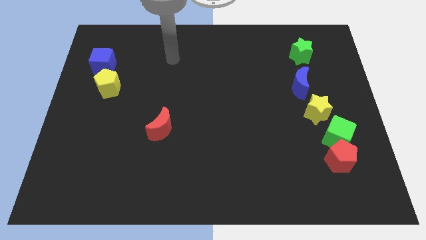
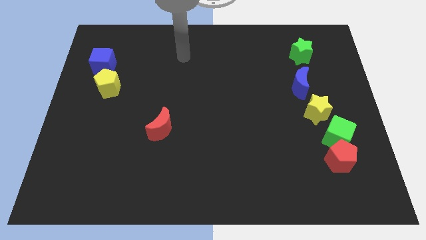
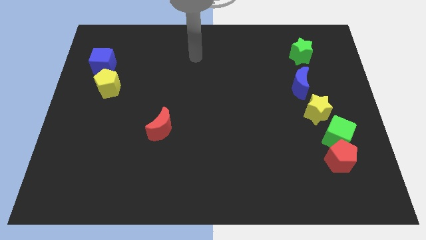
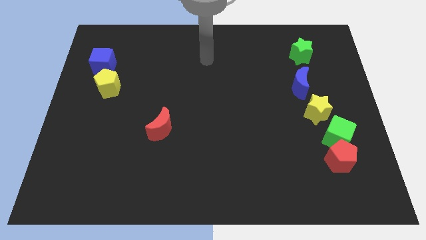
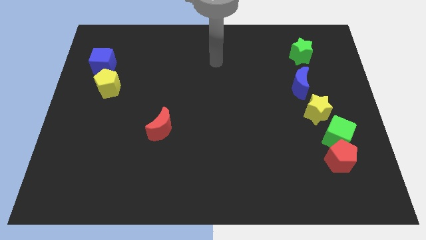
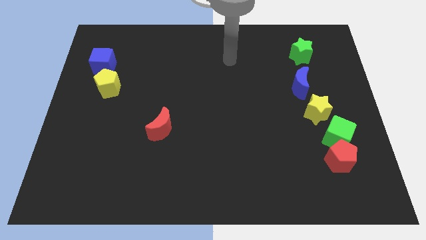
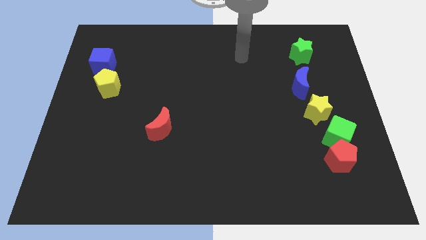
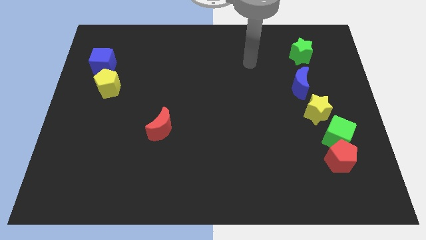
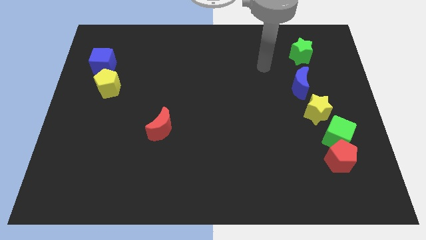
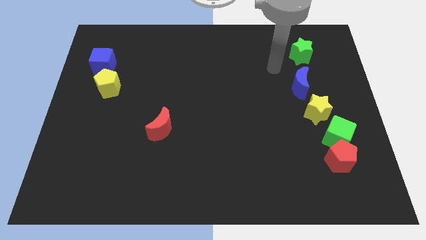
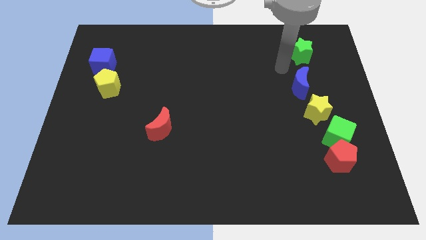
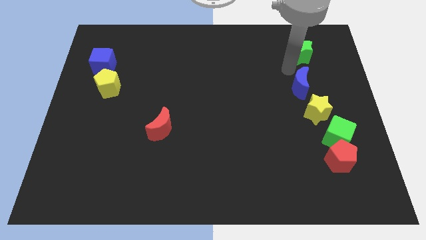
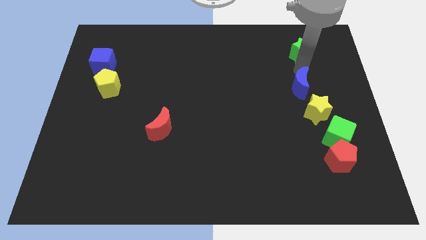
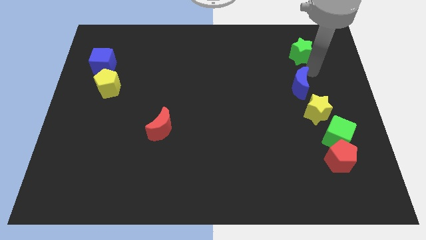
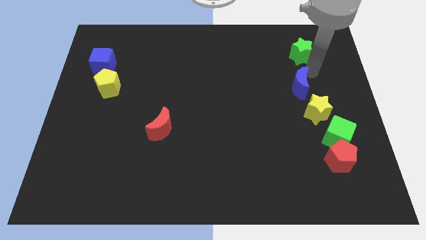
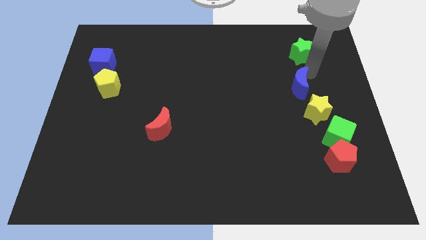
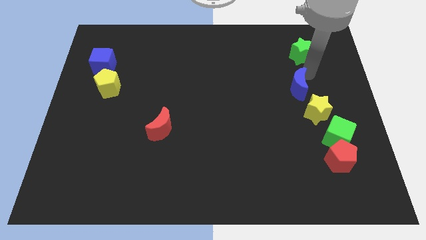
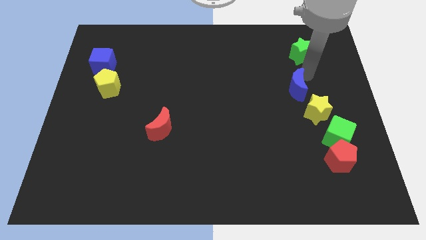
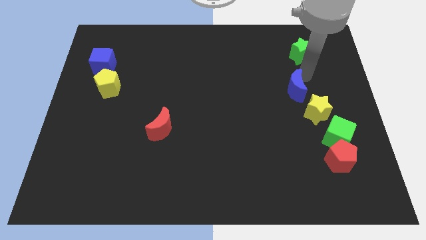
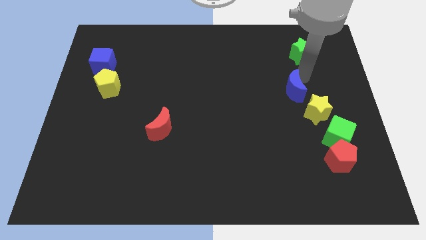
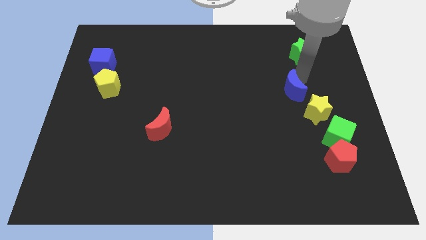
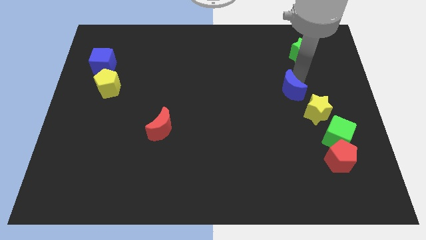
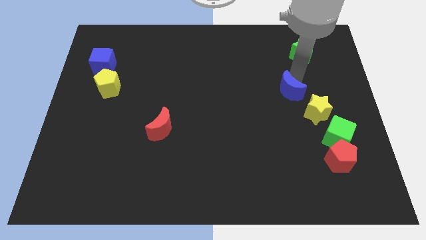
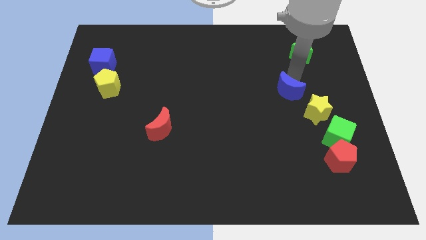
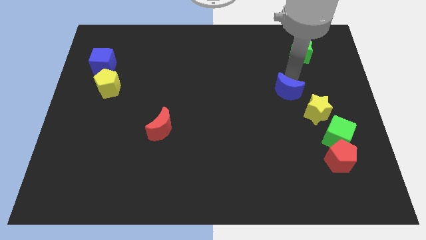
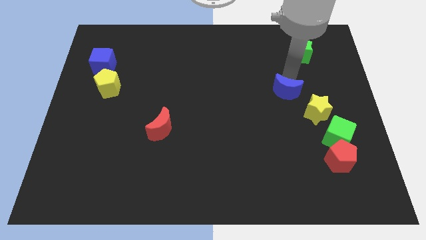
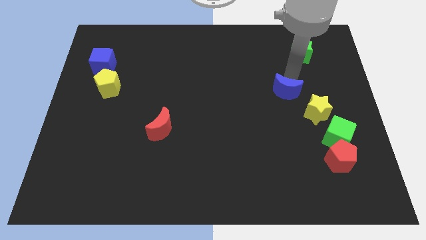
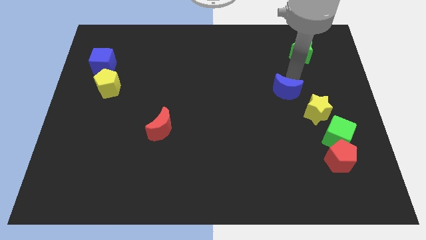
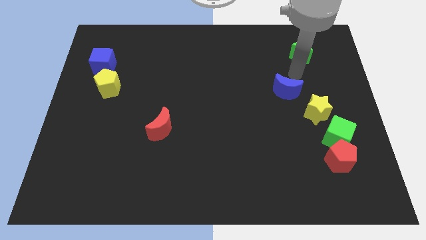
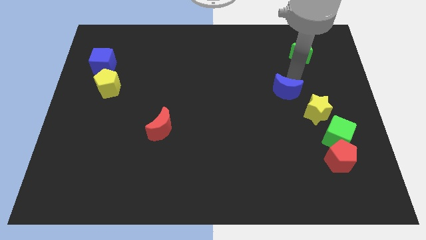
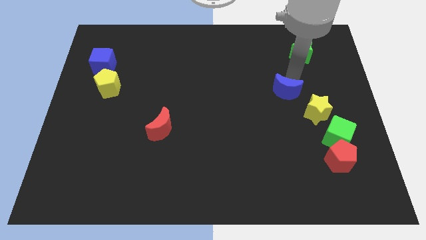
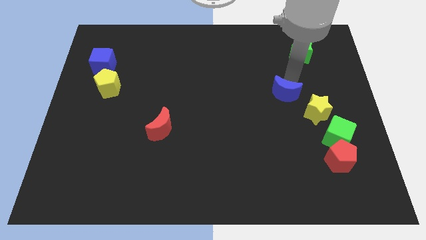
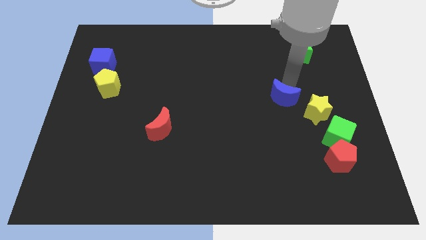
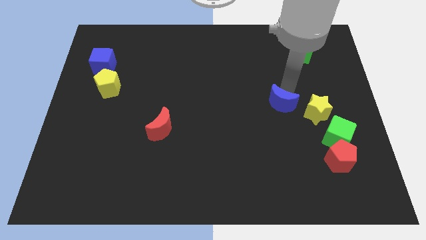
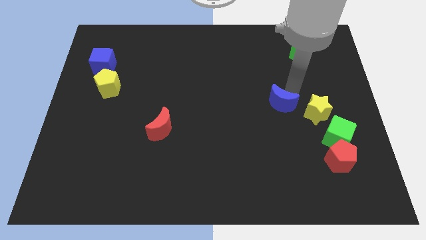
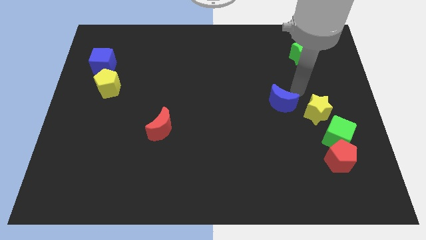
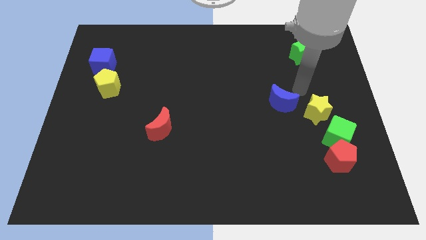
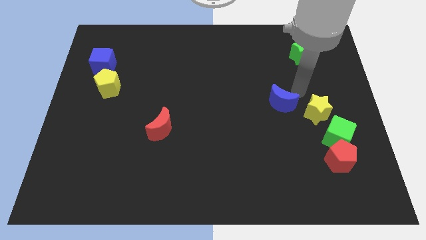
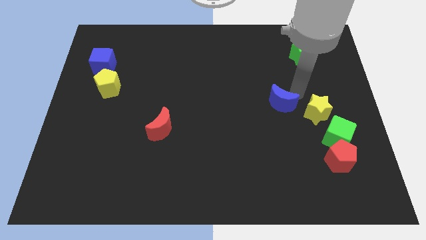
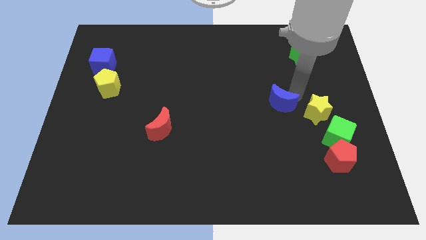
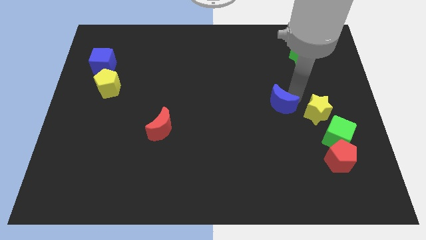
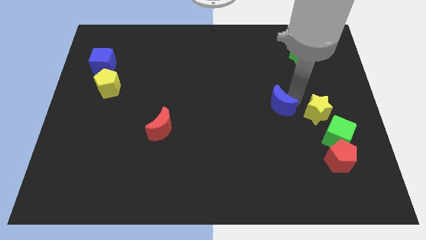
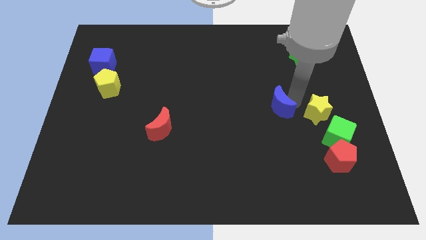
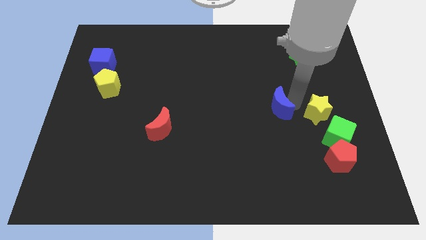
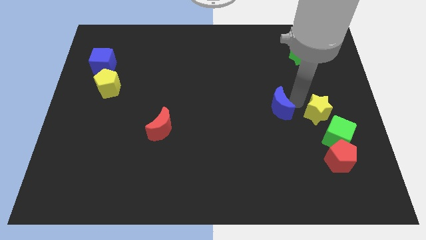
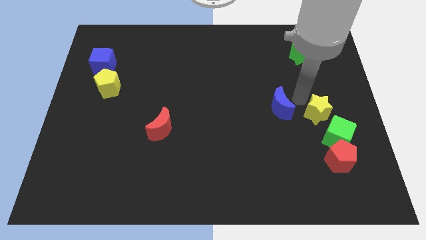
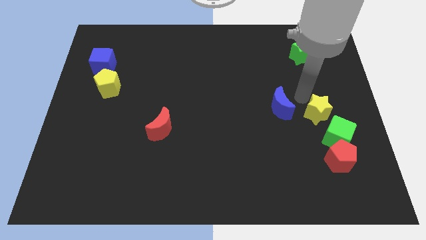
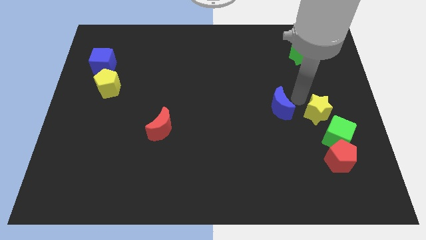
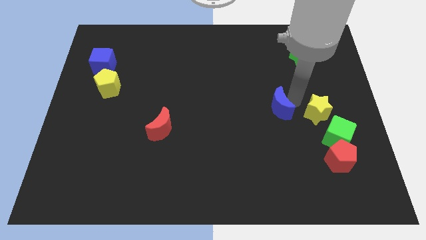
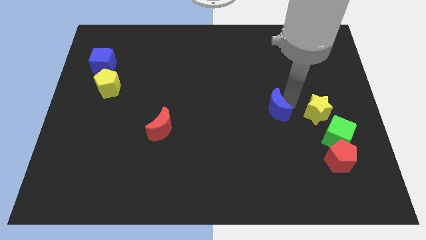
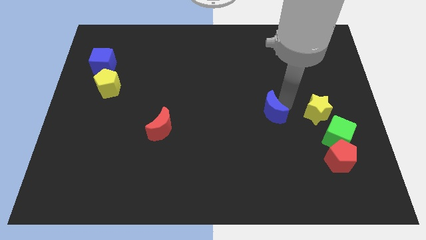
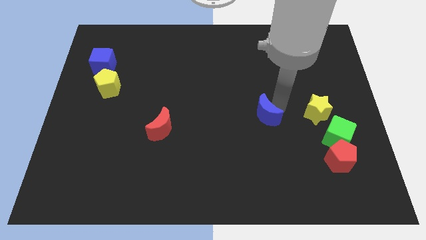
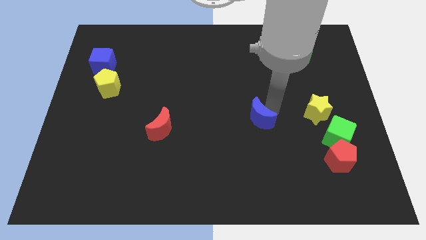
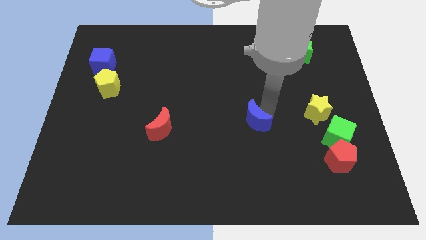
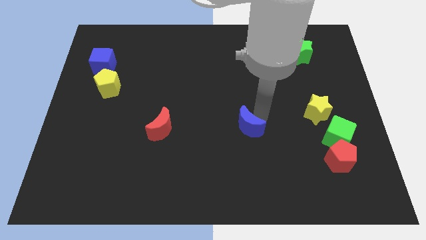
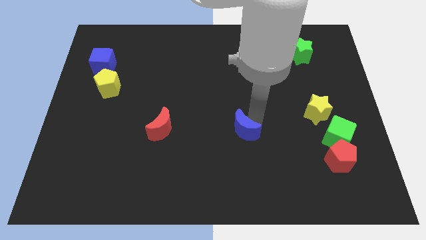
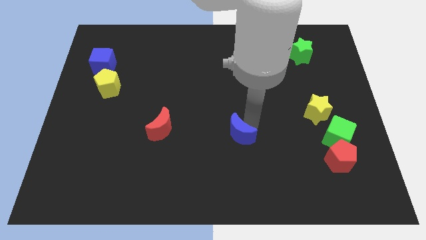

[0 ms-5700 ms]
slide the blue moon down and then left

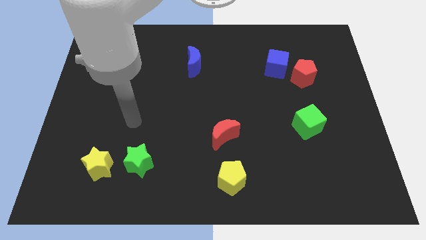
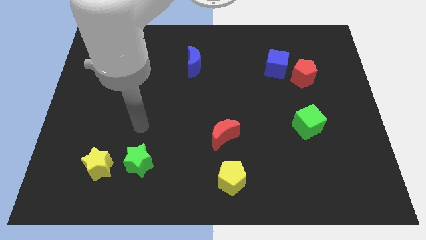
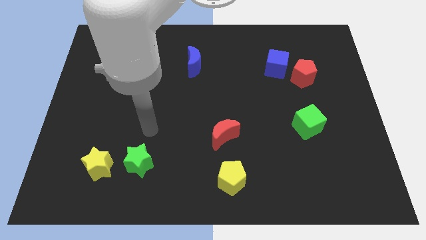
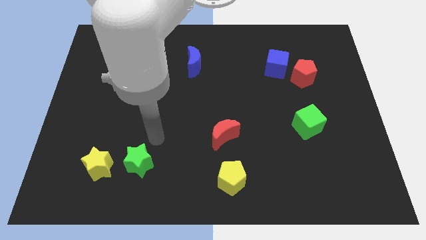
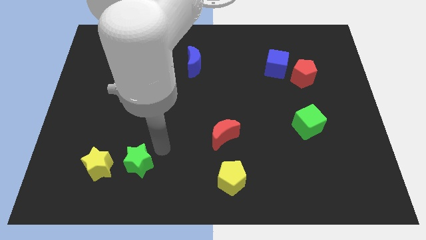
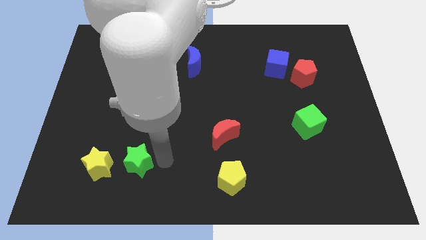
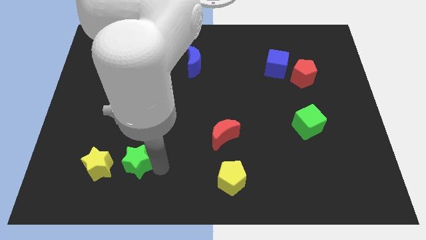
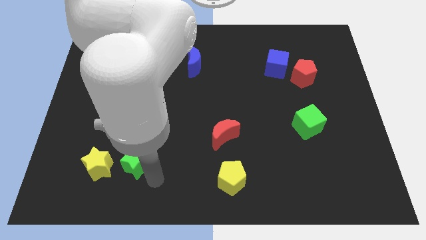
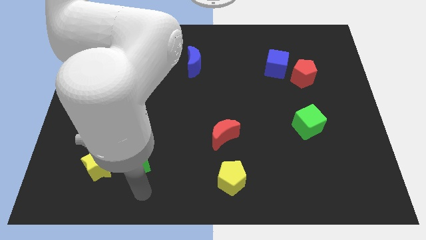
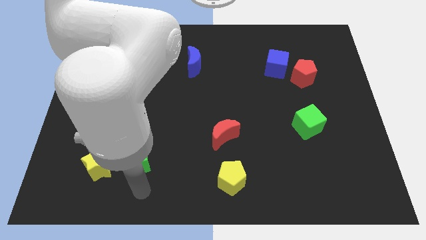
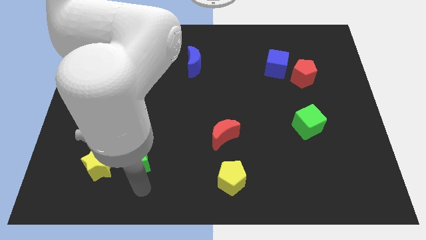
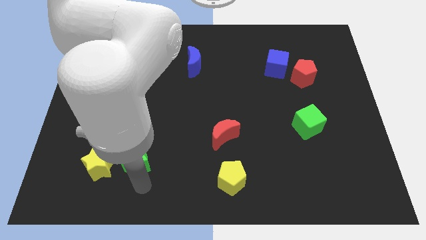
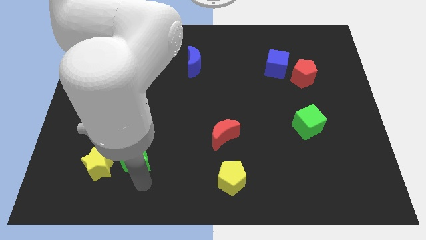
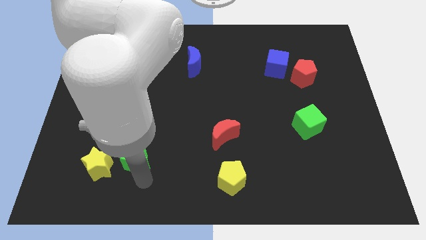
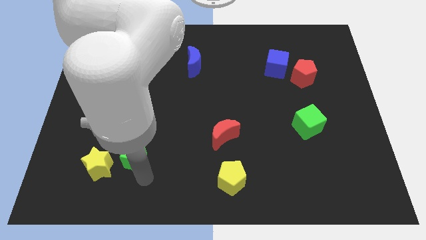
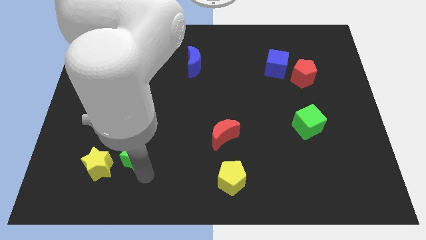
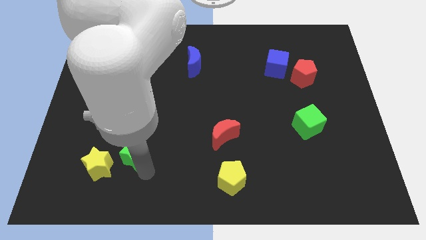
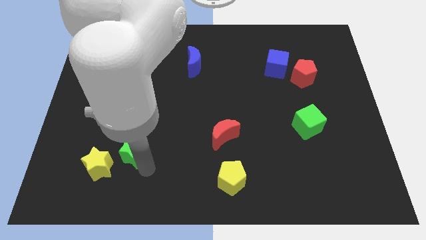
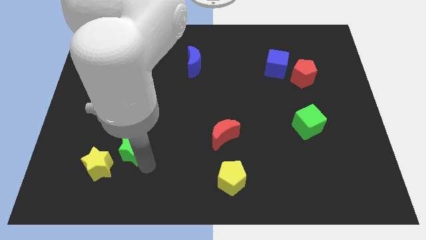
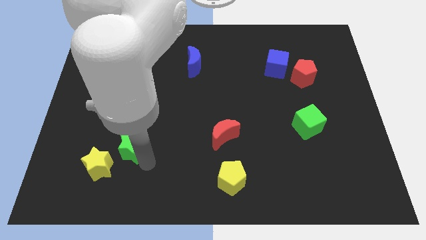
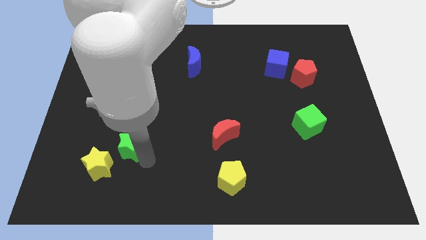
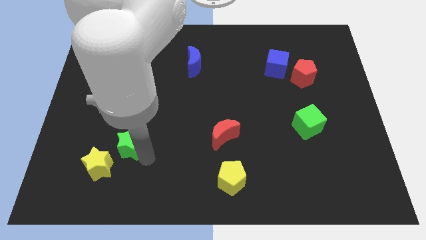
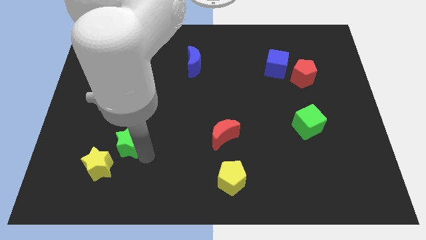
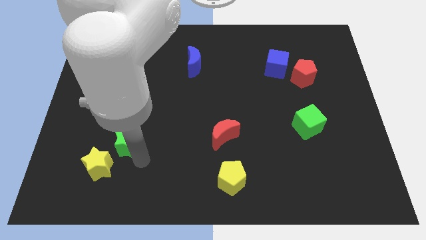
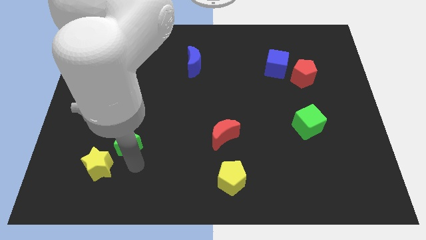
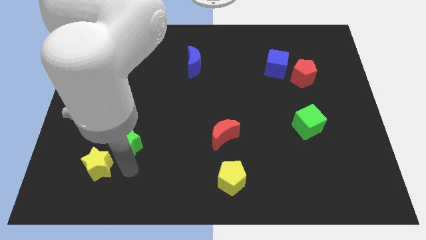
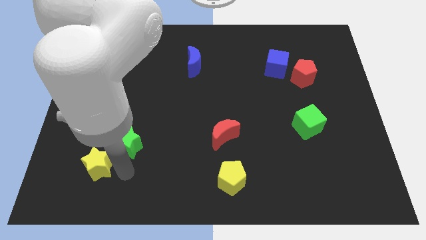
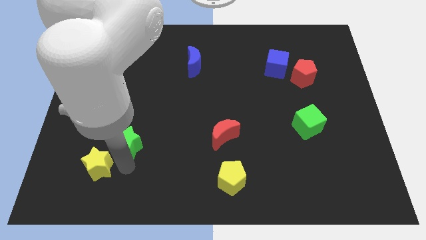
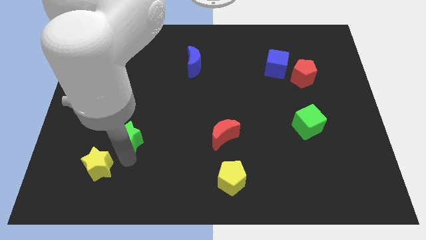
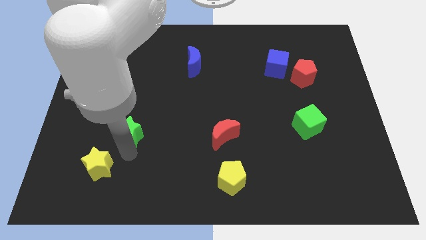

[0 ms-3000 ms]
slightly move the green star upwards
